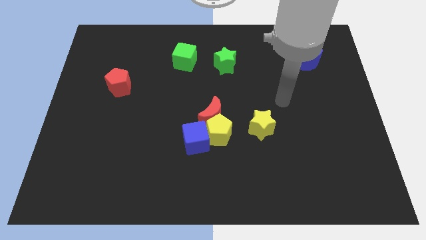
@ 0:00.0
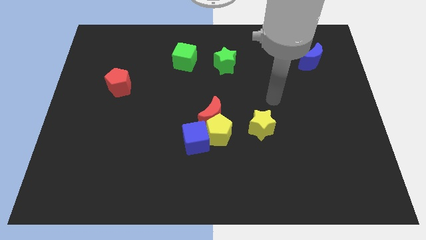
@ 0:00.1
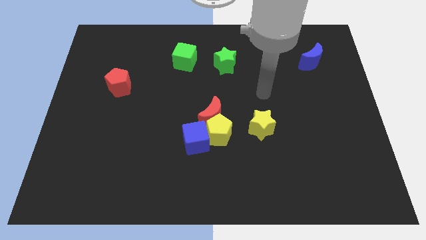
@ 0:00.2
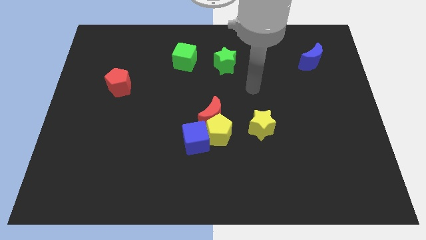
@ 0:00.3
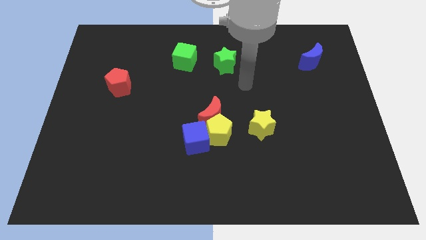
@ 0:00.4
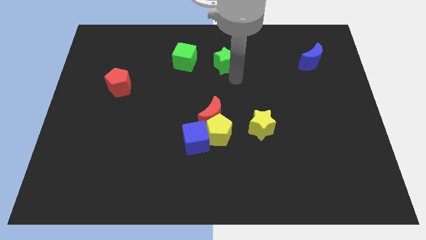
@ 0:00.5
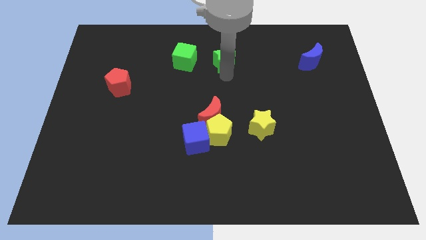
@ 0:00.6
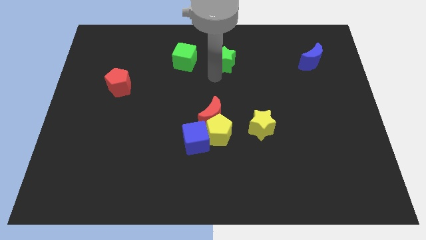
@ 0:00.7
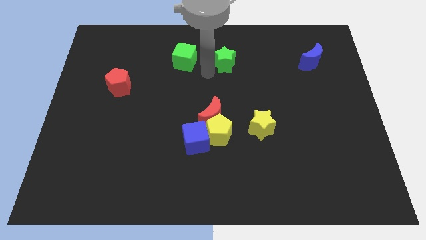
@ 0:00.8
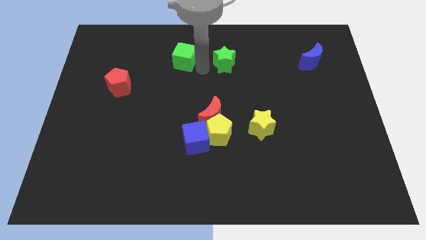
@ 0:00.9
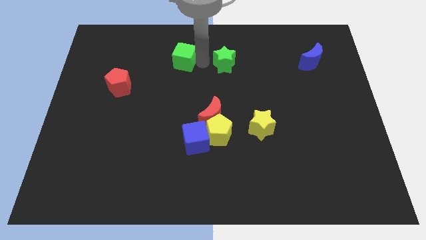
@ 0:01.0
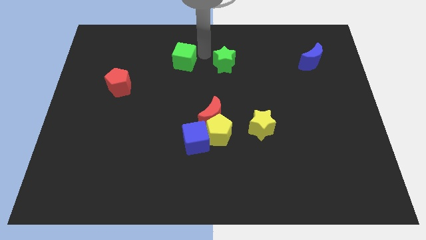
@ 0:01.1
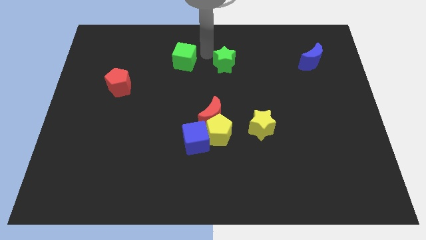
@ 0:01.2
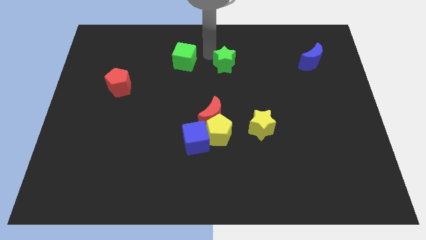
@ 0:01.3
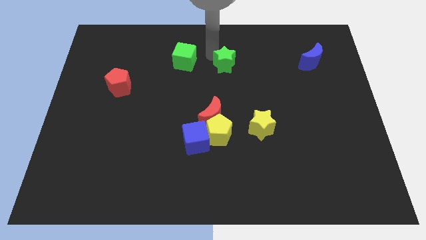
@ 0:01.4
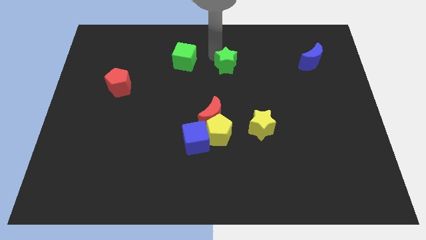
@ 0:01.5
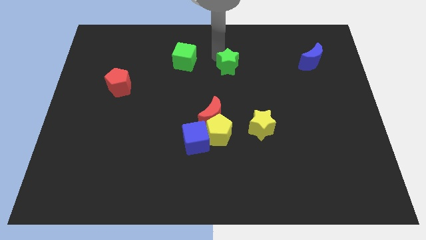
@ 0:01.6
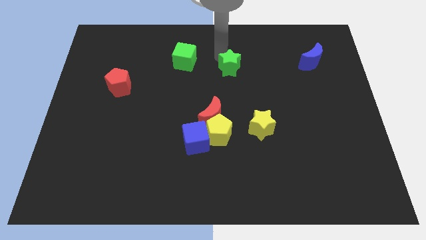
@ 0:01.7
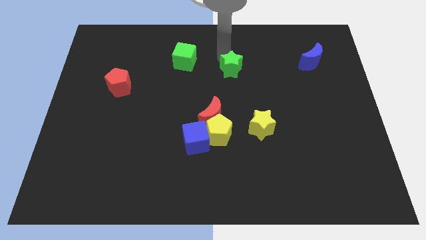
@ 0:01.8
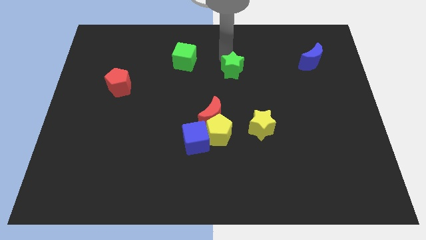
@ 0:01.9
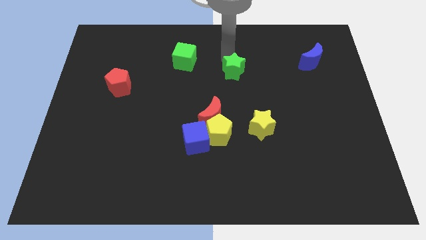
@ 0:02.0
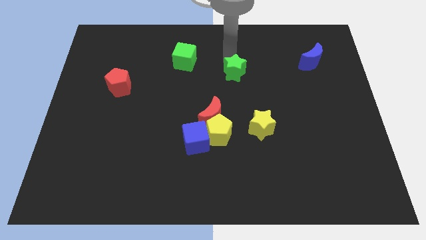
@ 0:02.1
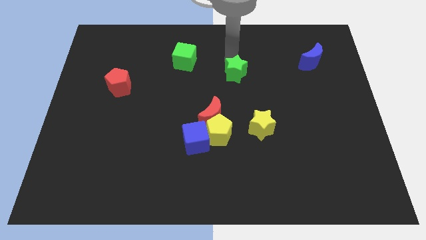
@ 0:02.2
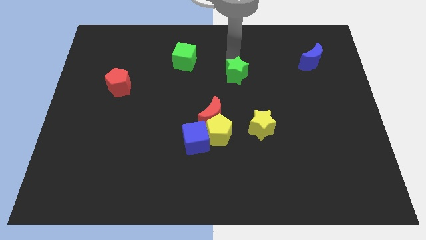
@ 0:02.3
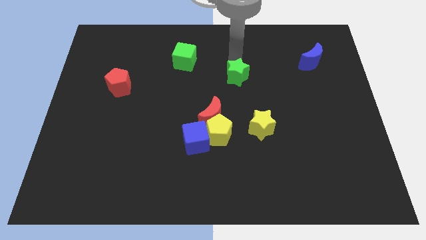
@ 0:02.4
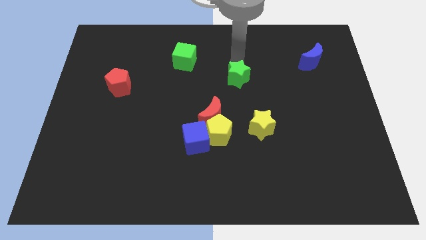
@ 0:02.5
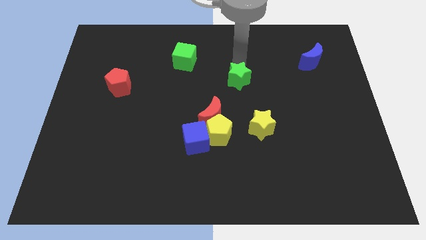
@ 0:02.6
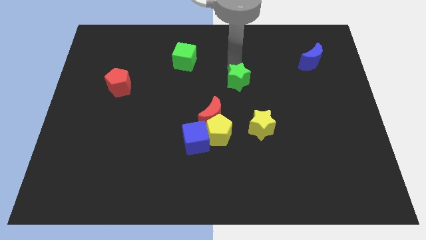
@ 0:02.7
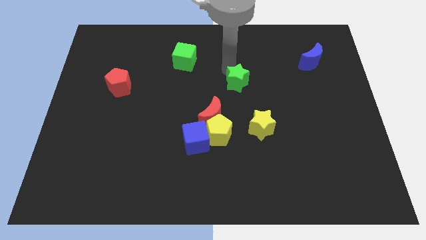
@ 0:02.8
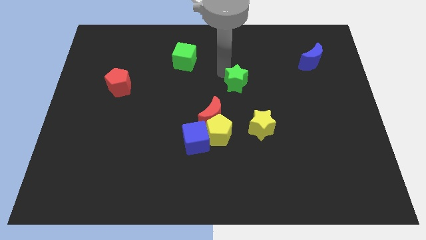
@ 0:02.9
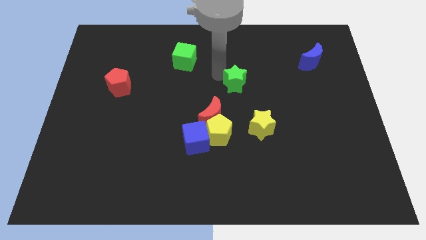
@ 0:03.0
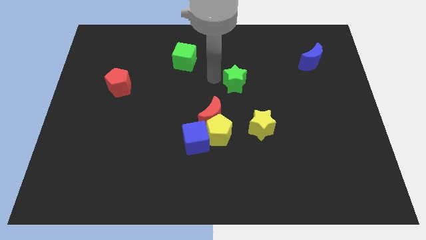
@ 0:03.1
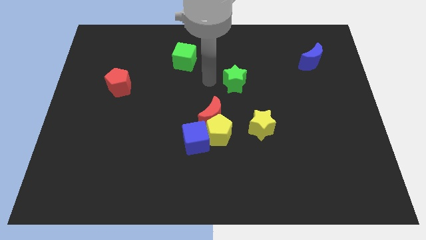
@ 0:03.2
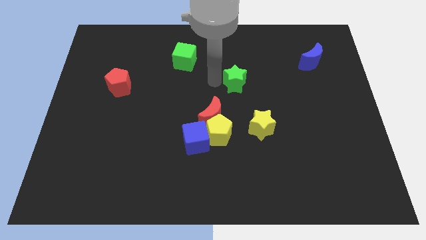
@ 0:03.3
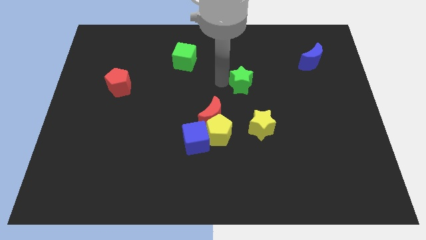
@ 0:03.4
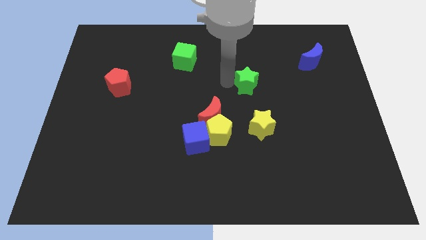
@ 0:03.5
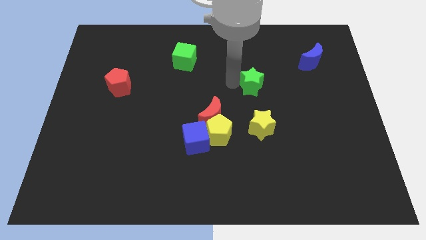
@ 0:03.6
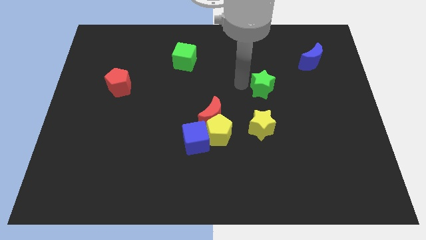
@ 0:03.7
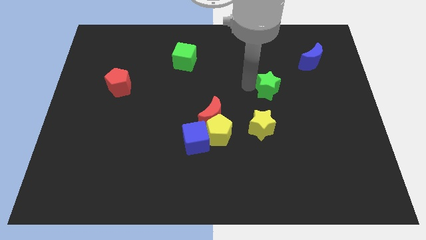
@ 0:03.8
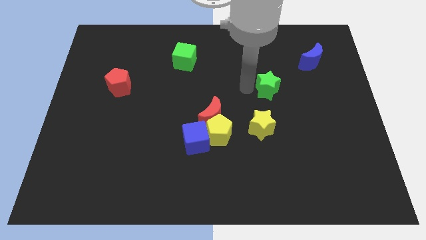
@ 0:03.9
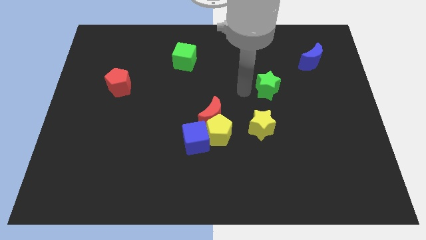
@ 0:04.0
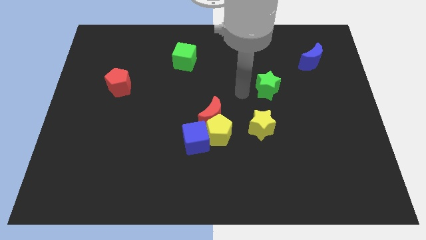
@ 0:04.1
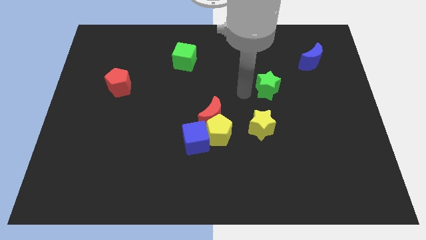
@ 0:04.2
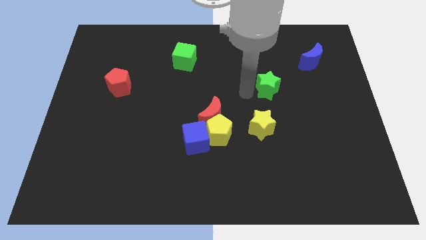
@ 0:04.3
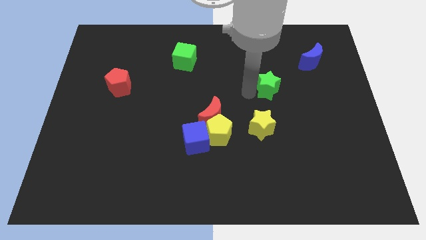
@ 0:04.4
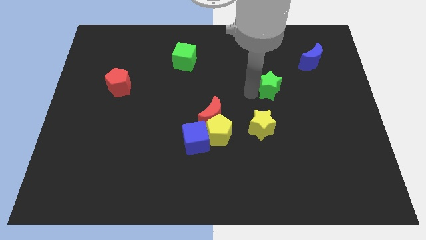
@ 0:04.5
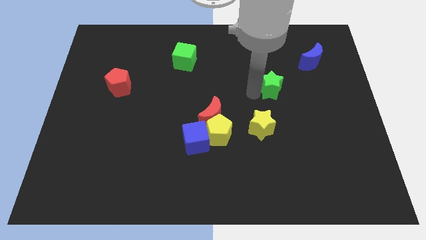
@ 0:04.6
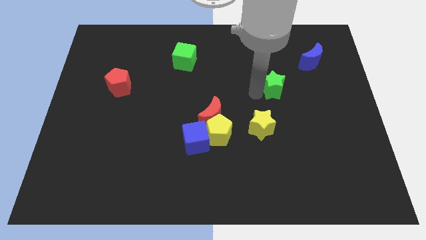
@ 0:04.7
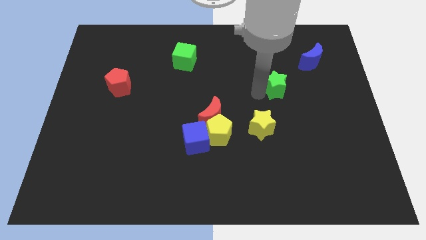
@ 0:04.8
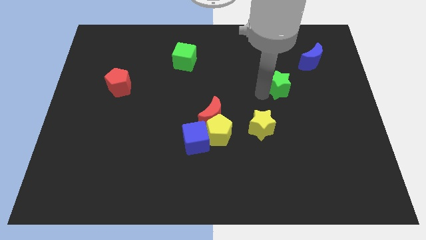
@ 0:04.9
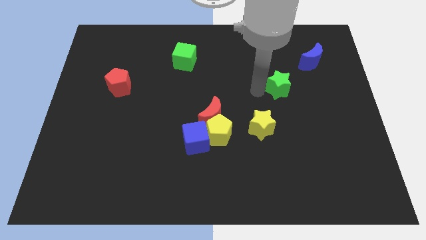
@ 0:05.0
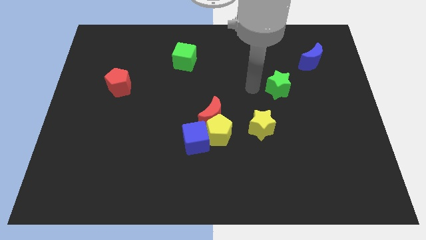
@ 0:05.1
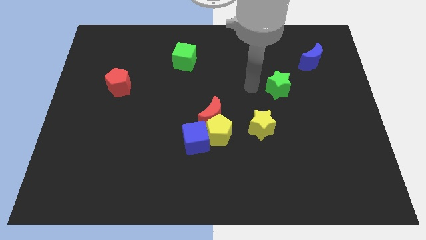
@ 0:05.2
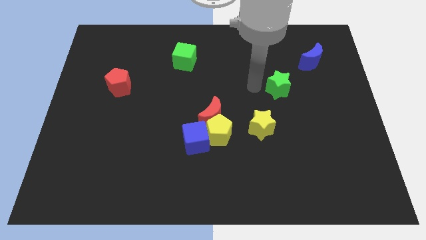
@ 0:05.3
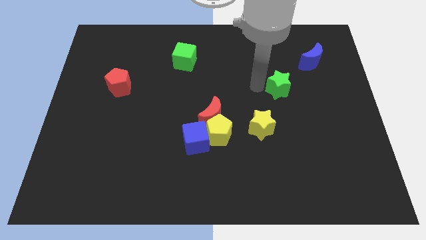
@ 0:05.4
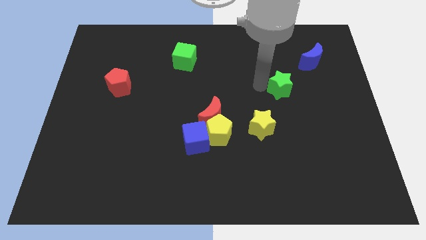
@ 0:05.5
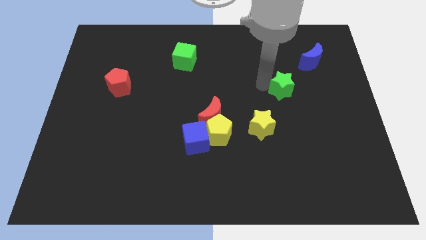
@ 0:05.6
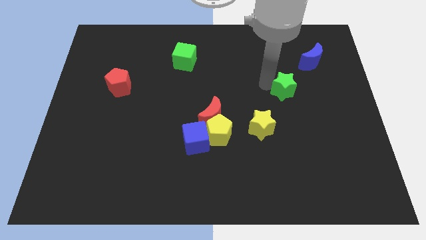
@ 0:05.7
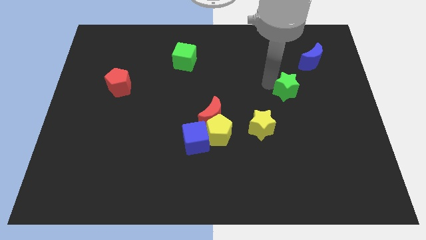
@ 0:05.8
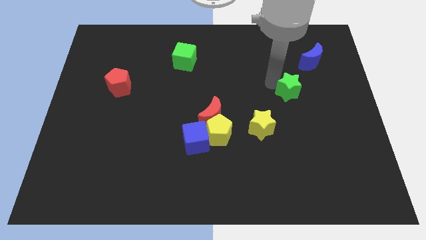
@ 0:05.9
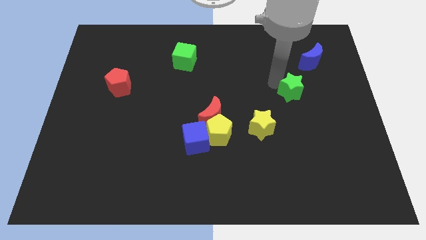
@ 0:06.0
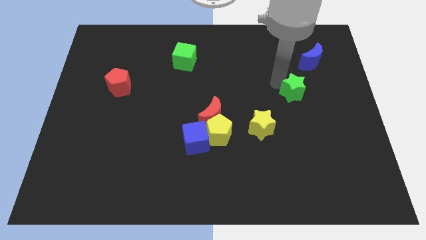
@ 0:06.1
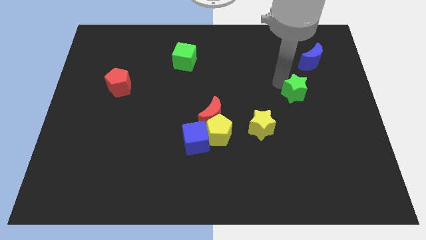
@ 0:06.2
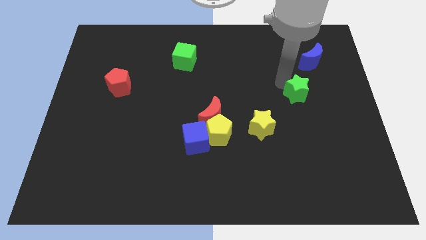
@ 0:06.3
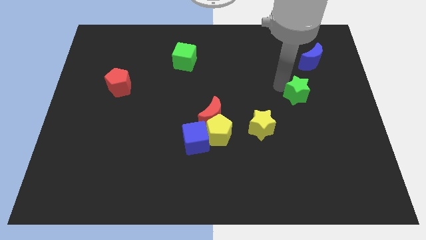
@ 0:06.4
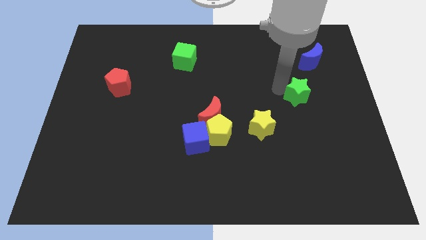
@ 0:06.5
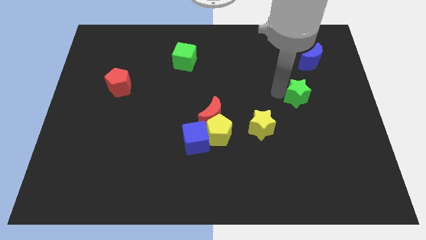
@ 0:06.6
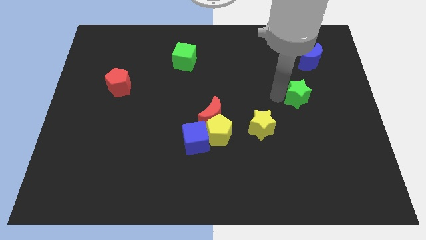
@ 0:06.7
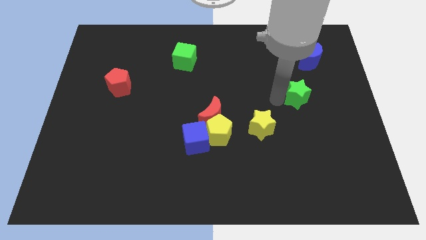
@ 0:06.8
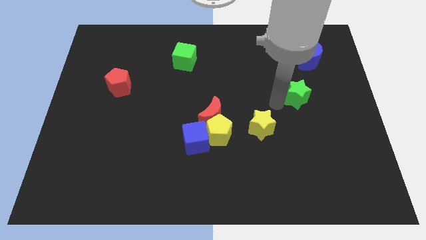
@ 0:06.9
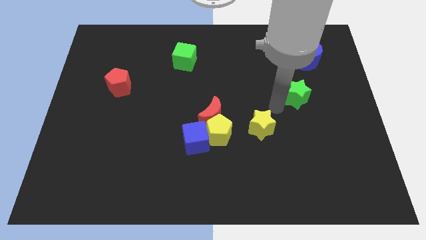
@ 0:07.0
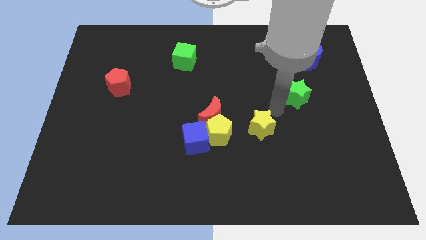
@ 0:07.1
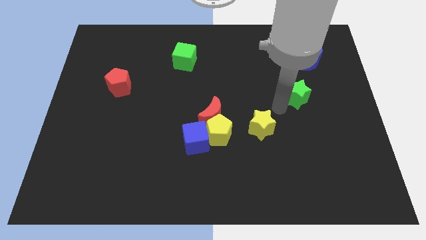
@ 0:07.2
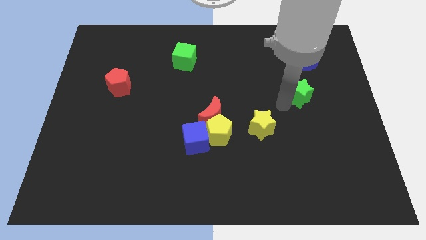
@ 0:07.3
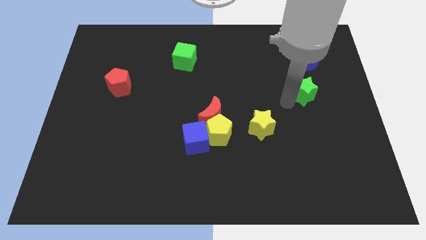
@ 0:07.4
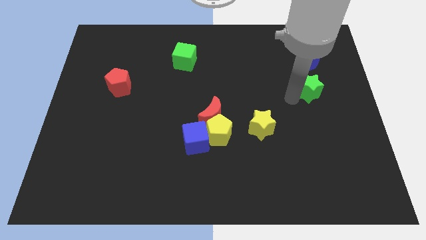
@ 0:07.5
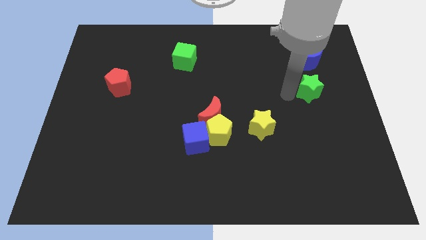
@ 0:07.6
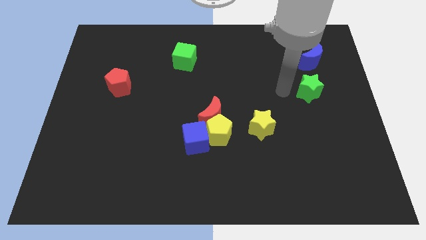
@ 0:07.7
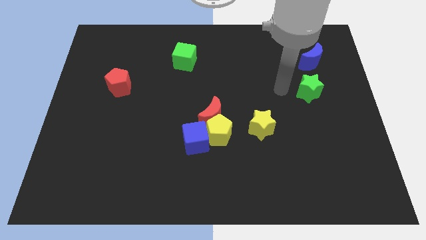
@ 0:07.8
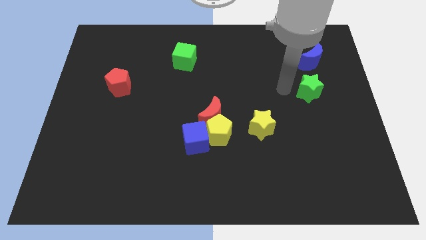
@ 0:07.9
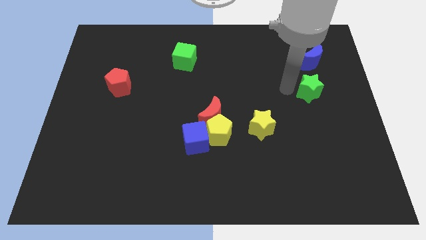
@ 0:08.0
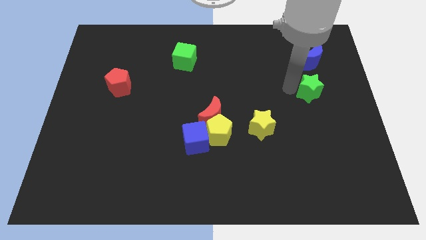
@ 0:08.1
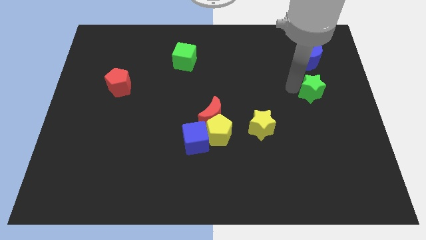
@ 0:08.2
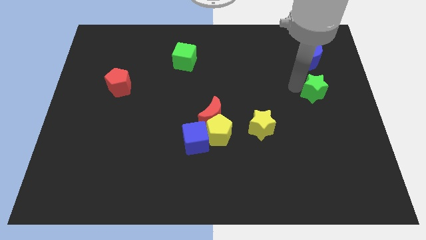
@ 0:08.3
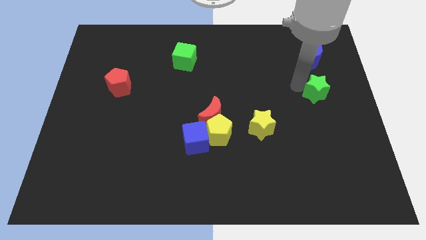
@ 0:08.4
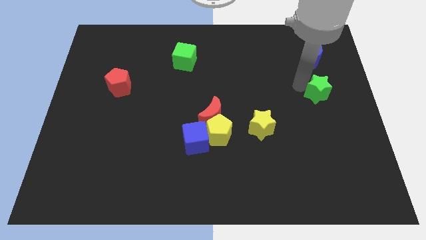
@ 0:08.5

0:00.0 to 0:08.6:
slide the green star to the right side
